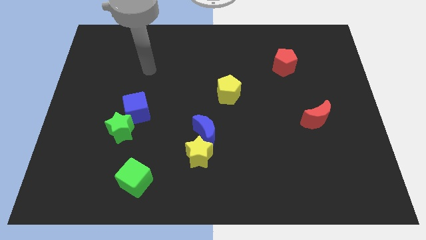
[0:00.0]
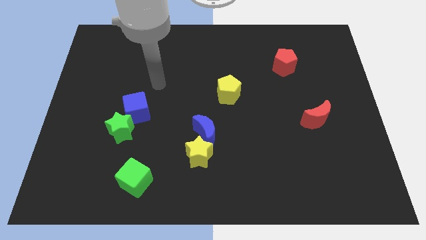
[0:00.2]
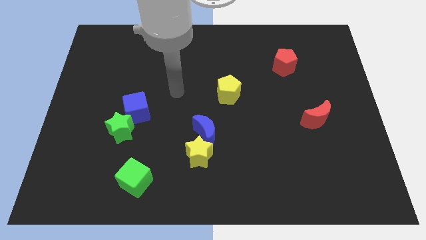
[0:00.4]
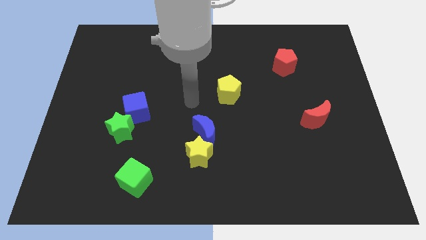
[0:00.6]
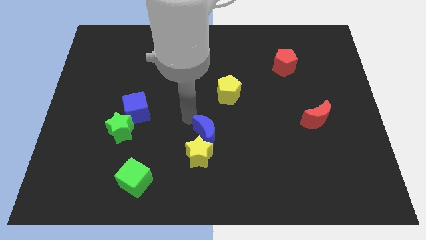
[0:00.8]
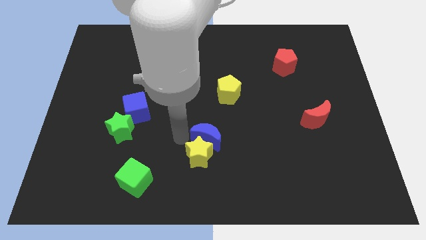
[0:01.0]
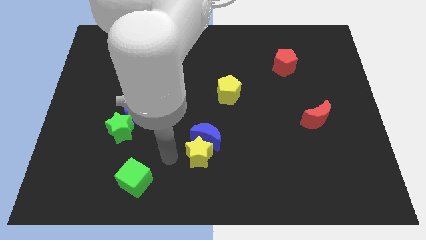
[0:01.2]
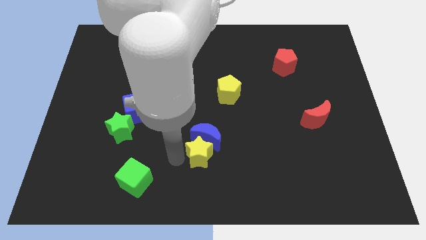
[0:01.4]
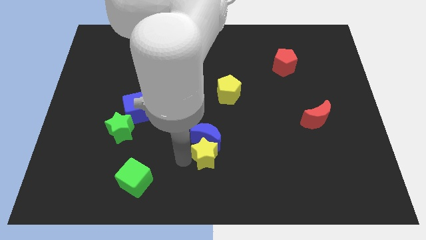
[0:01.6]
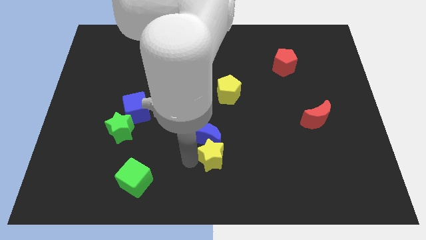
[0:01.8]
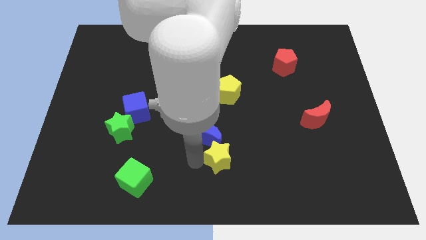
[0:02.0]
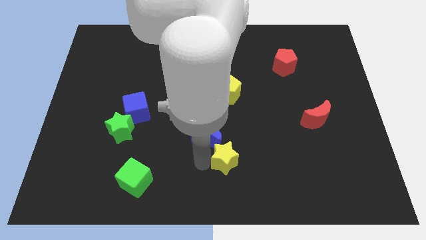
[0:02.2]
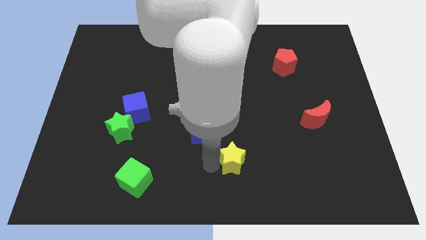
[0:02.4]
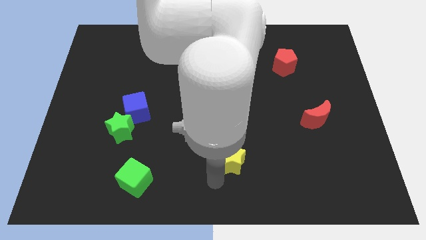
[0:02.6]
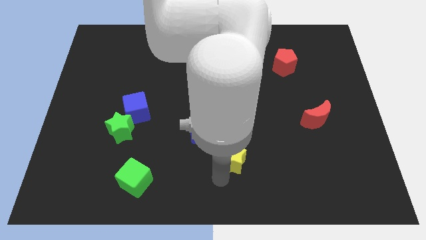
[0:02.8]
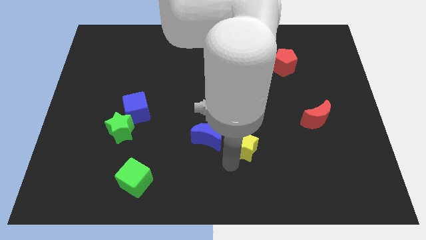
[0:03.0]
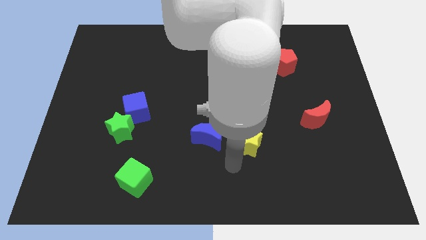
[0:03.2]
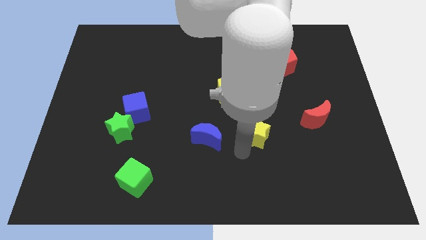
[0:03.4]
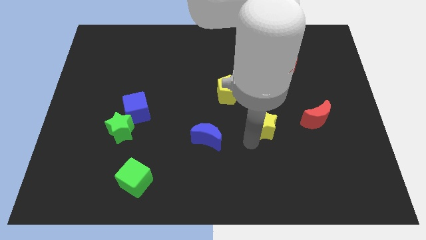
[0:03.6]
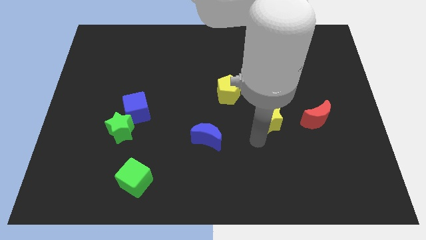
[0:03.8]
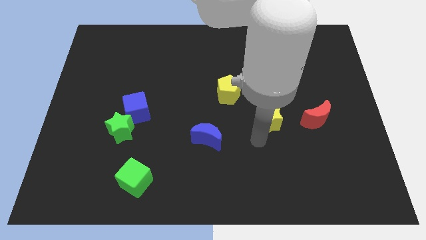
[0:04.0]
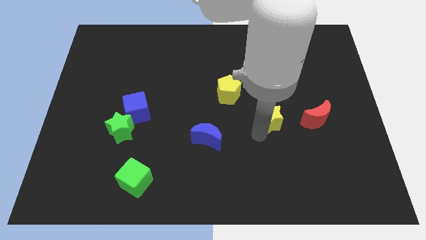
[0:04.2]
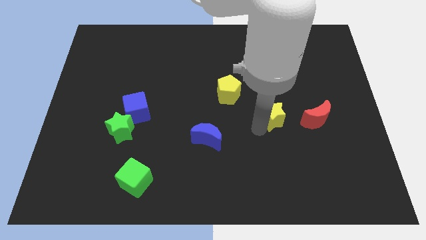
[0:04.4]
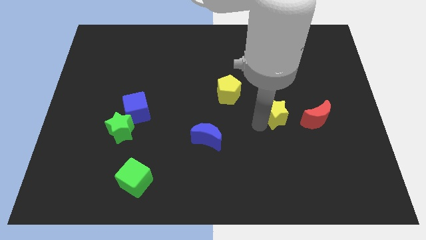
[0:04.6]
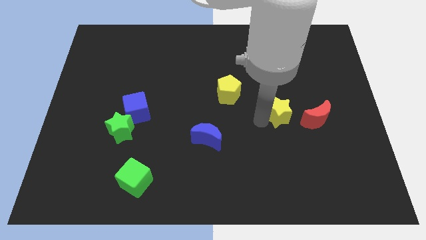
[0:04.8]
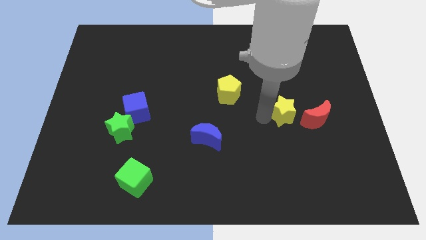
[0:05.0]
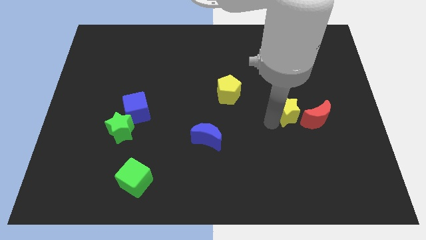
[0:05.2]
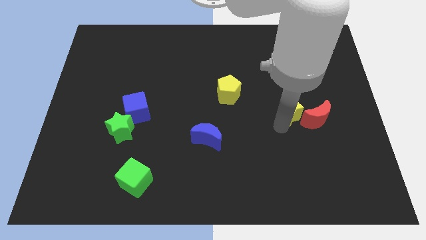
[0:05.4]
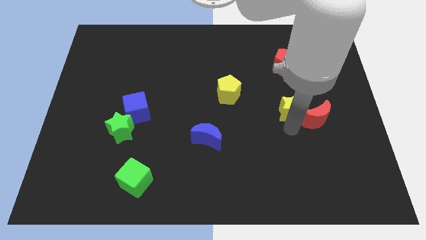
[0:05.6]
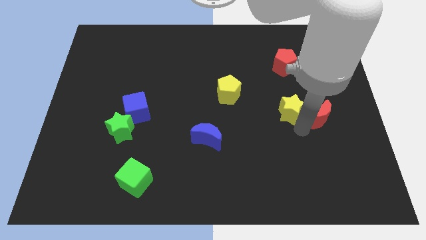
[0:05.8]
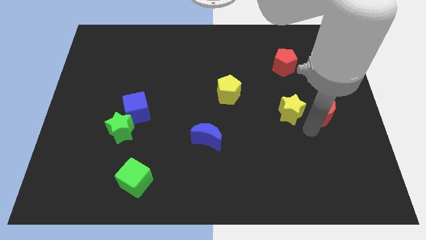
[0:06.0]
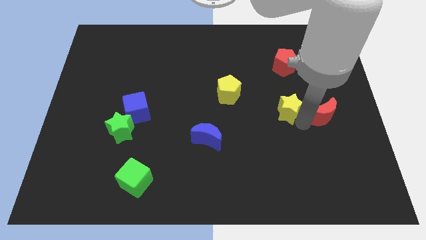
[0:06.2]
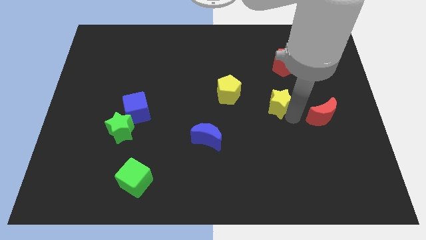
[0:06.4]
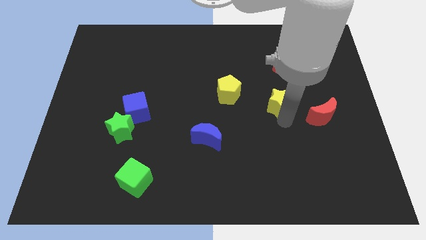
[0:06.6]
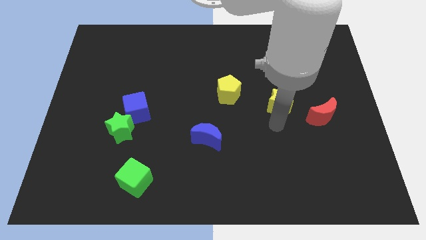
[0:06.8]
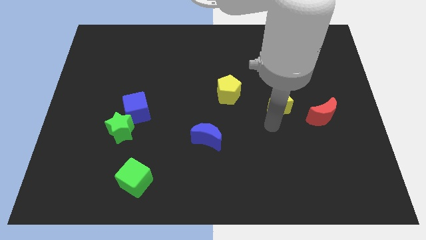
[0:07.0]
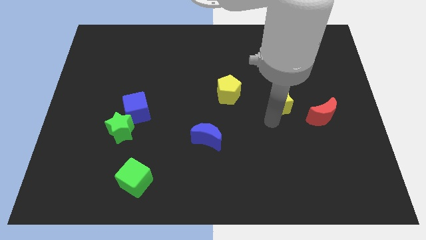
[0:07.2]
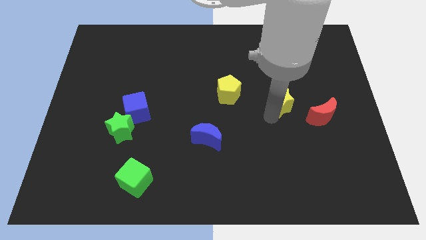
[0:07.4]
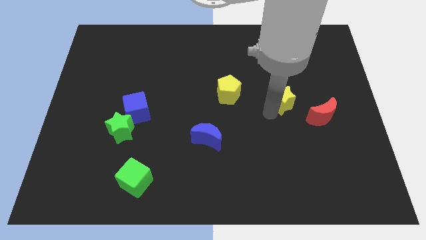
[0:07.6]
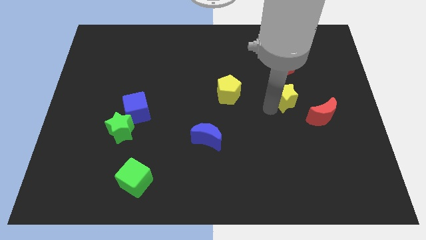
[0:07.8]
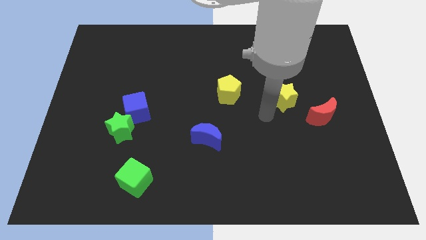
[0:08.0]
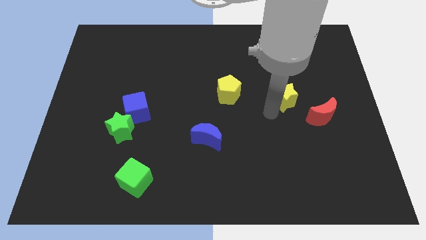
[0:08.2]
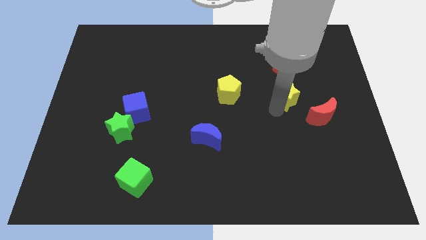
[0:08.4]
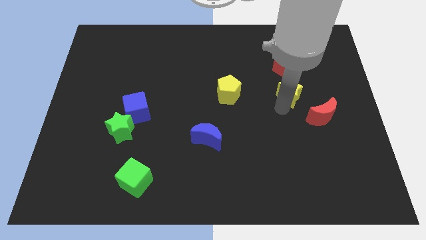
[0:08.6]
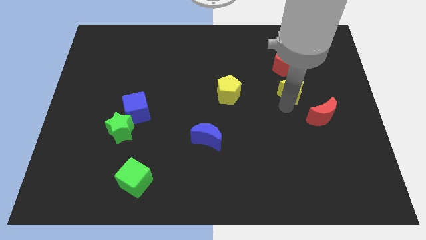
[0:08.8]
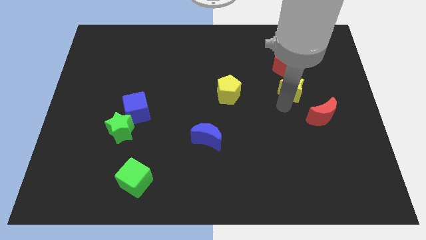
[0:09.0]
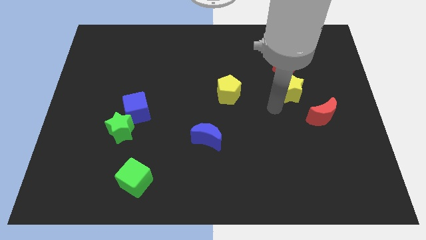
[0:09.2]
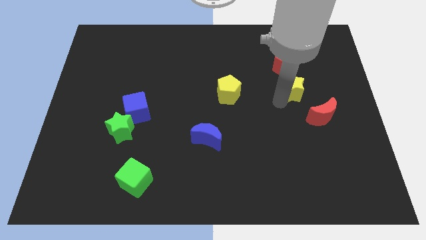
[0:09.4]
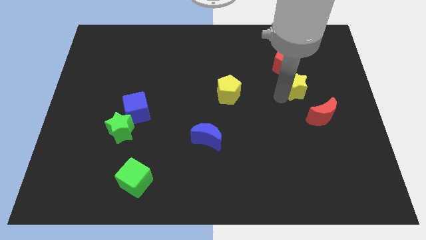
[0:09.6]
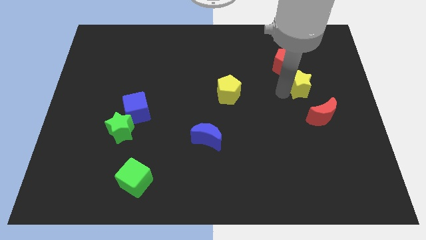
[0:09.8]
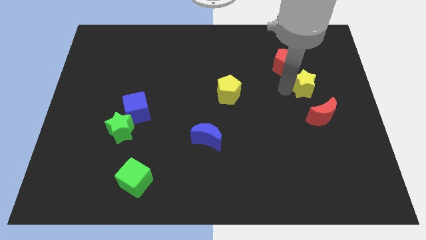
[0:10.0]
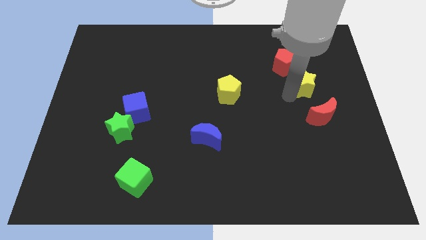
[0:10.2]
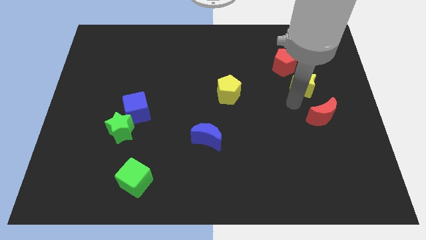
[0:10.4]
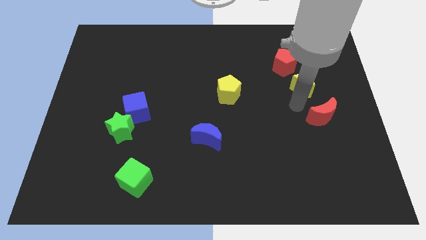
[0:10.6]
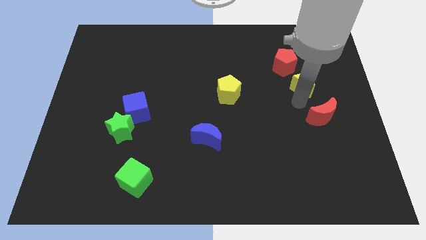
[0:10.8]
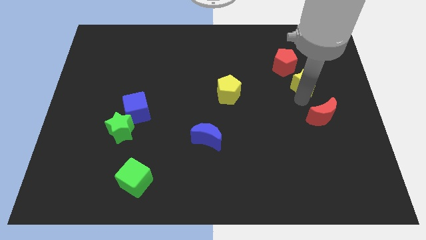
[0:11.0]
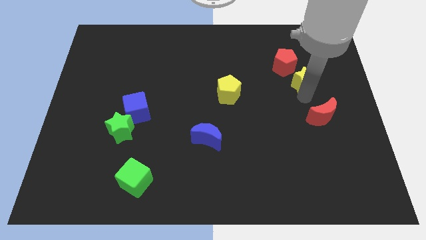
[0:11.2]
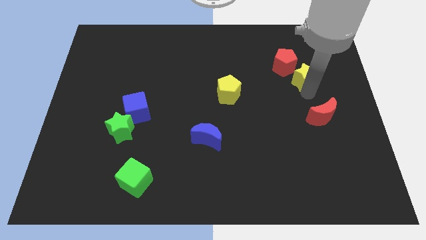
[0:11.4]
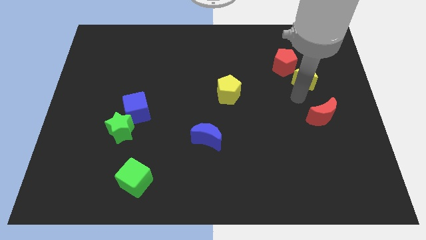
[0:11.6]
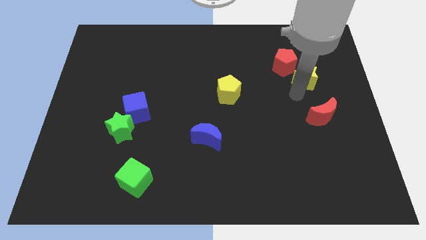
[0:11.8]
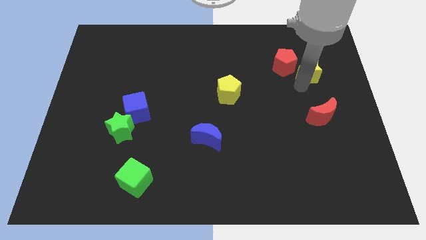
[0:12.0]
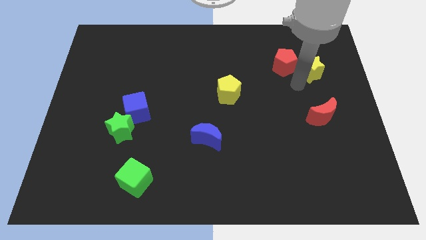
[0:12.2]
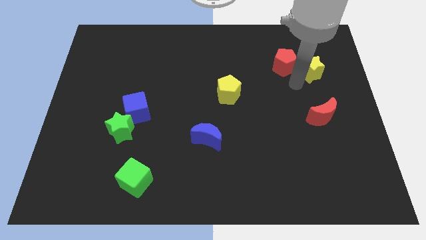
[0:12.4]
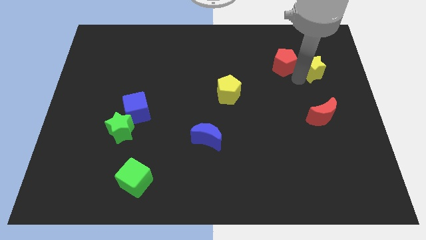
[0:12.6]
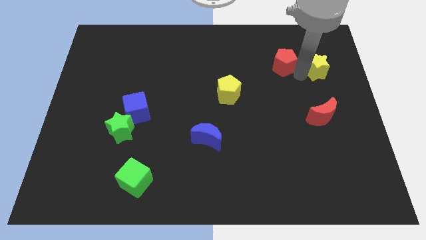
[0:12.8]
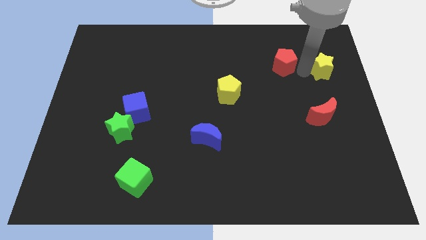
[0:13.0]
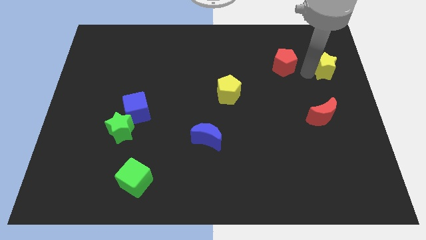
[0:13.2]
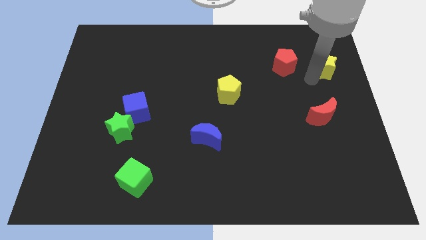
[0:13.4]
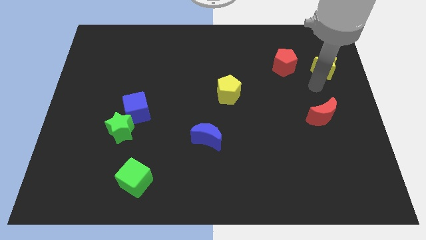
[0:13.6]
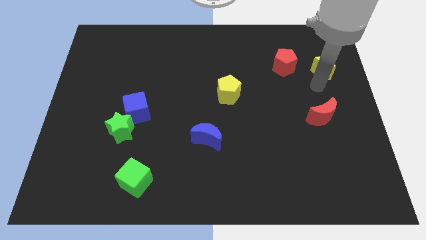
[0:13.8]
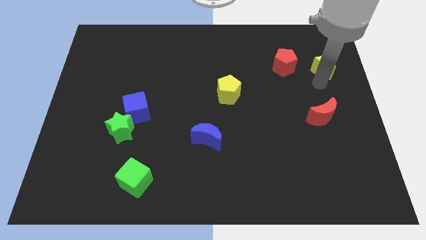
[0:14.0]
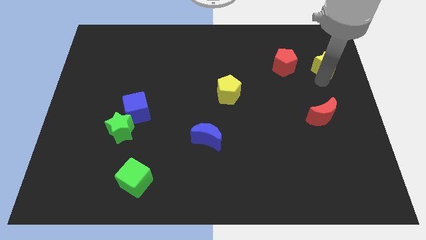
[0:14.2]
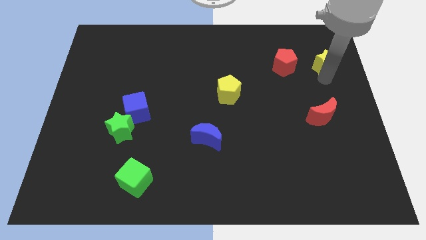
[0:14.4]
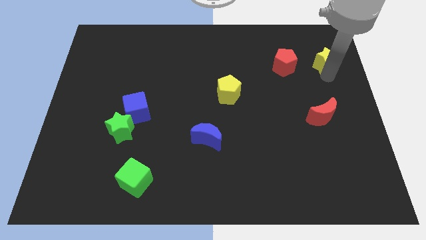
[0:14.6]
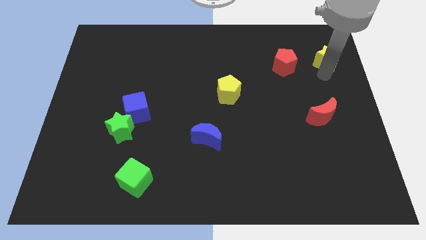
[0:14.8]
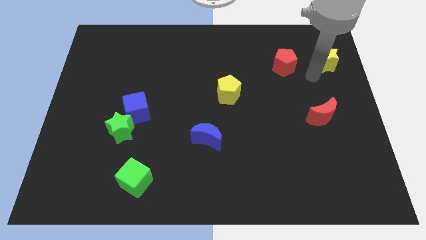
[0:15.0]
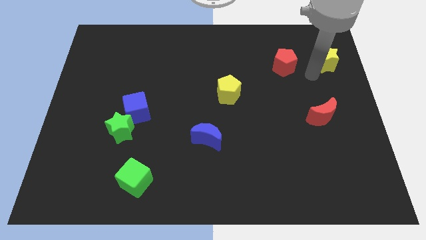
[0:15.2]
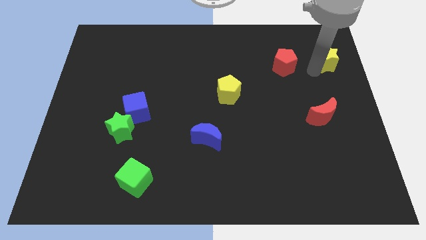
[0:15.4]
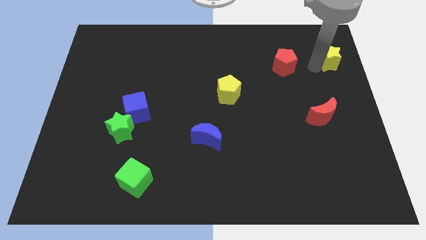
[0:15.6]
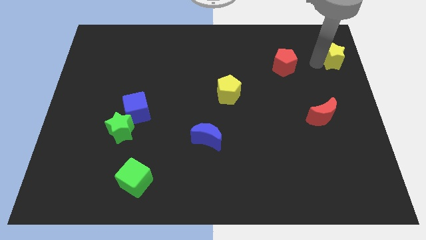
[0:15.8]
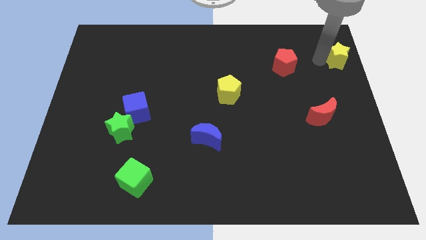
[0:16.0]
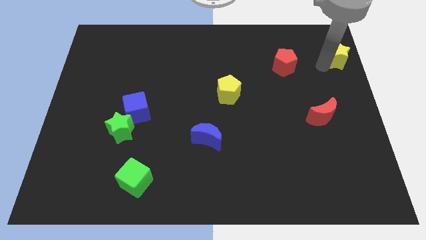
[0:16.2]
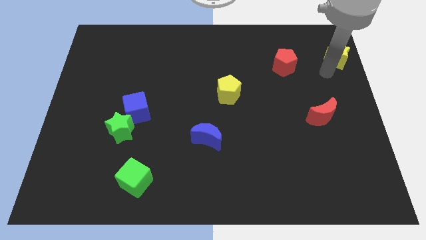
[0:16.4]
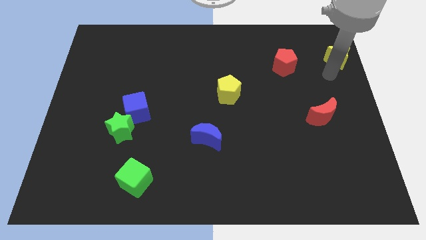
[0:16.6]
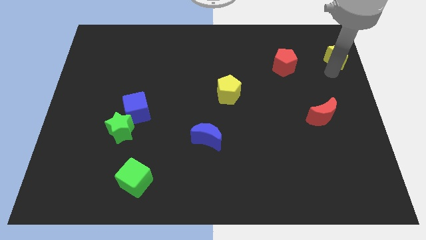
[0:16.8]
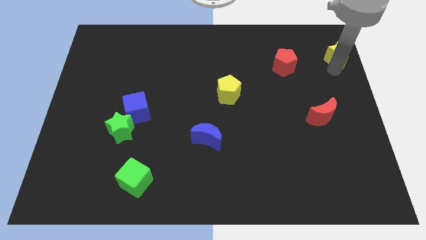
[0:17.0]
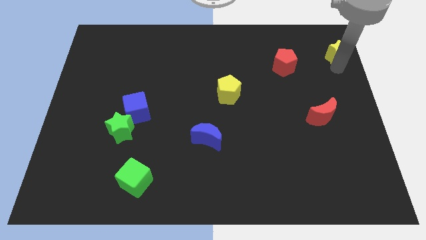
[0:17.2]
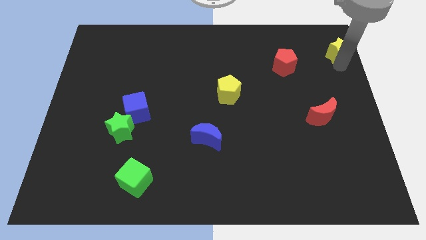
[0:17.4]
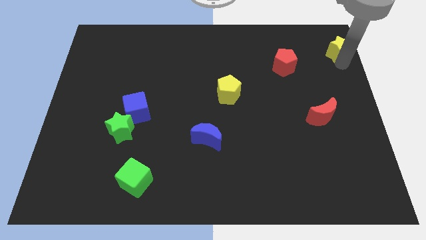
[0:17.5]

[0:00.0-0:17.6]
move the yellow star to the upper right corner
